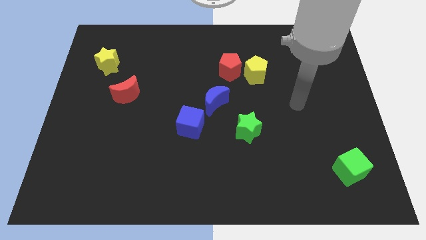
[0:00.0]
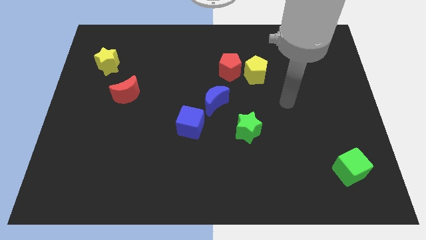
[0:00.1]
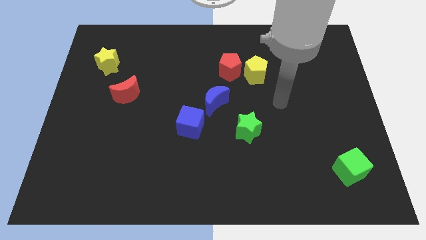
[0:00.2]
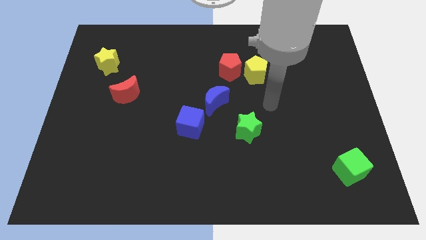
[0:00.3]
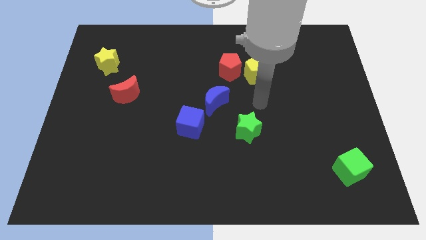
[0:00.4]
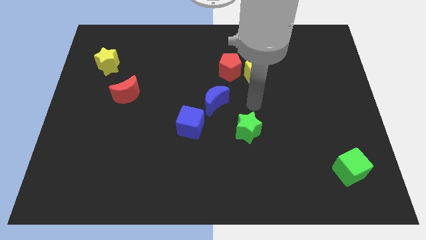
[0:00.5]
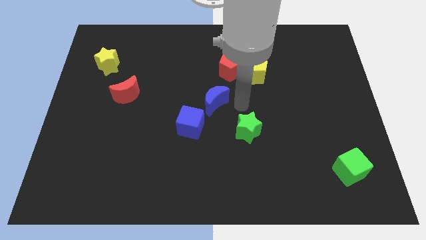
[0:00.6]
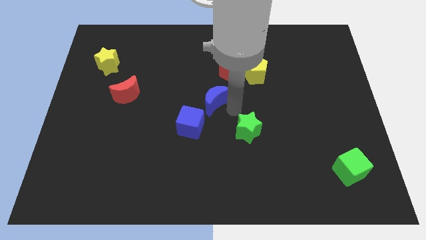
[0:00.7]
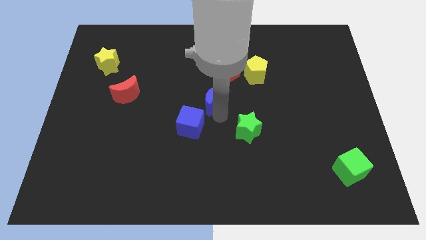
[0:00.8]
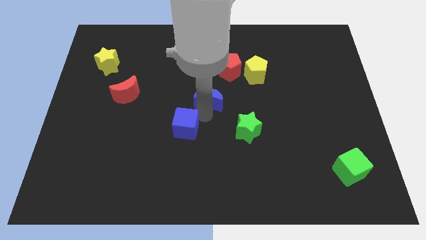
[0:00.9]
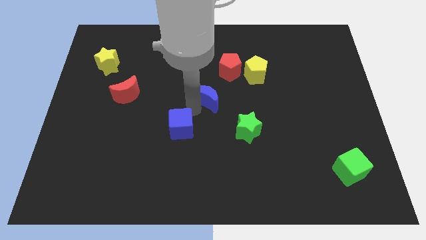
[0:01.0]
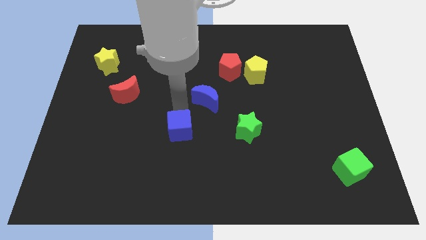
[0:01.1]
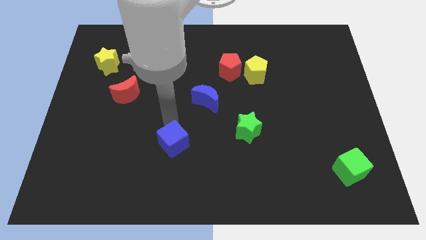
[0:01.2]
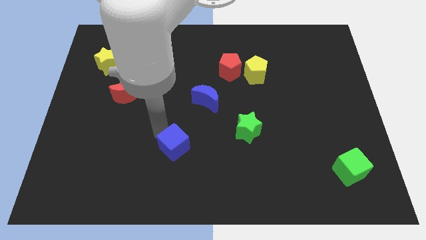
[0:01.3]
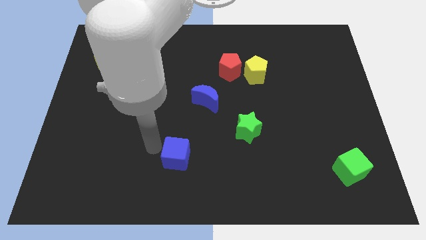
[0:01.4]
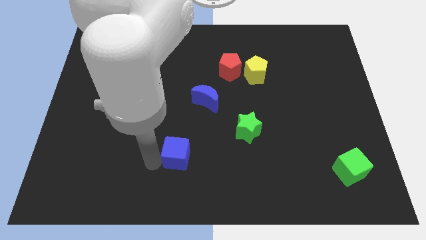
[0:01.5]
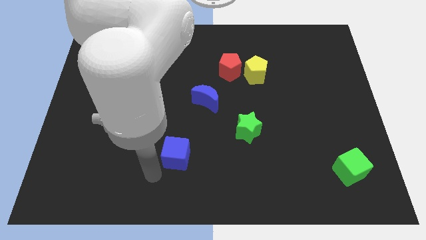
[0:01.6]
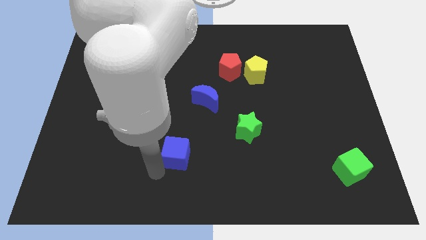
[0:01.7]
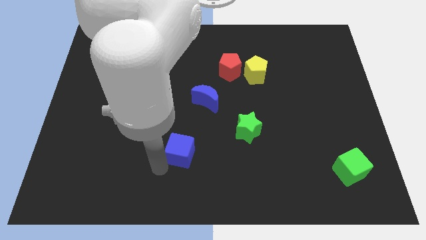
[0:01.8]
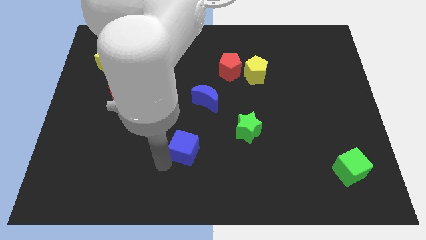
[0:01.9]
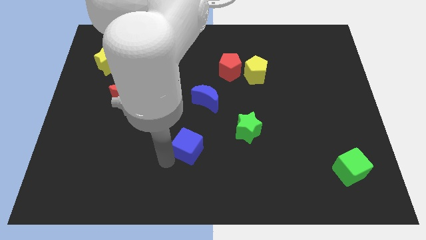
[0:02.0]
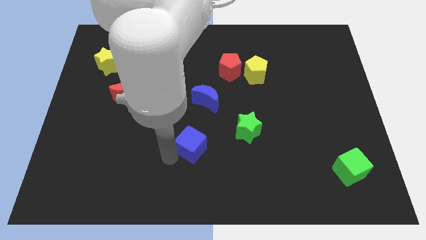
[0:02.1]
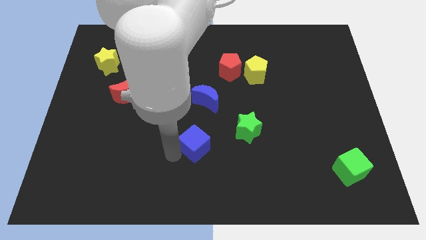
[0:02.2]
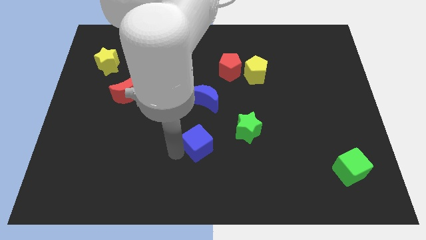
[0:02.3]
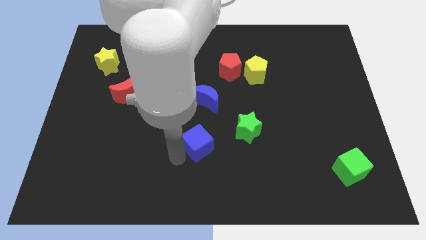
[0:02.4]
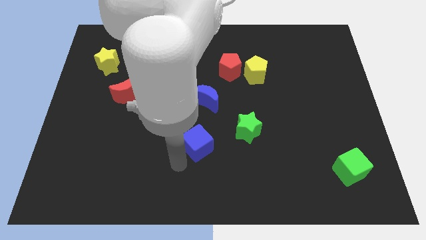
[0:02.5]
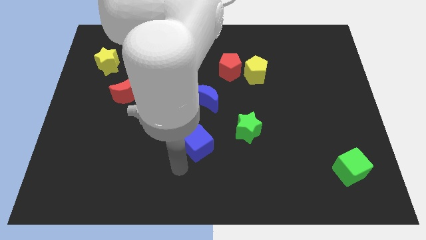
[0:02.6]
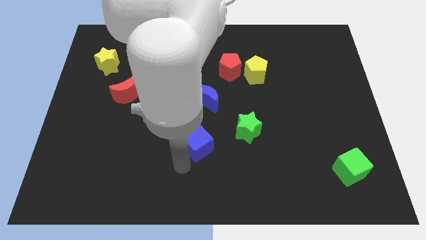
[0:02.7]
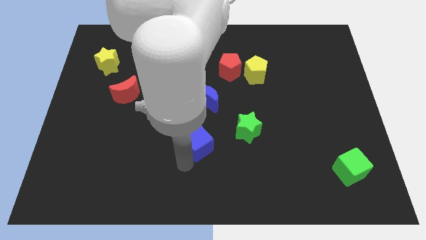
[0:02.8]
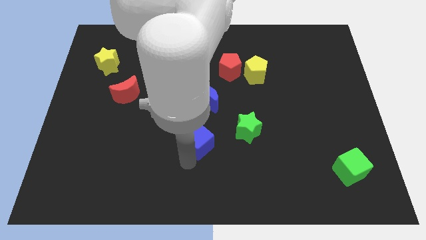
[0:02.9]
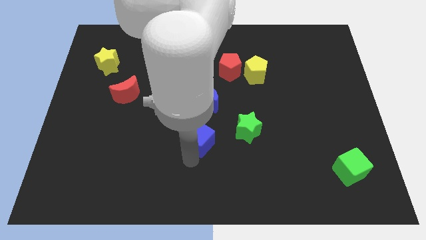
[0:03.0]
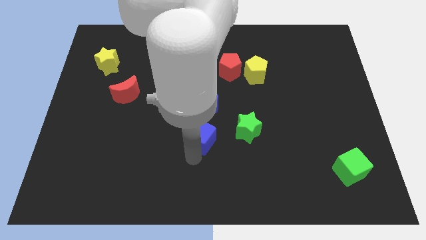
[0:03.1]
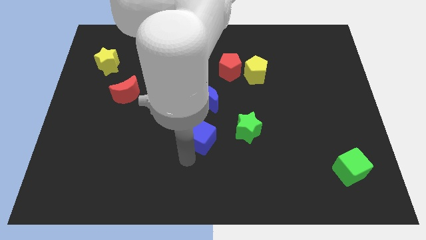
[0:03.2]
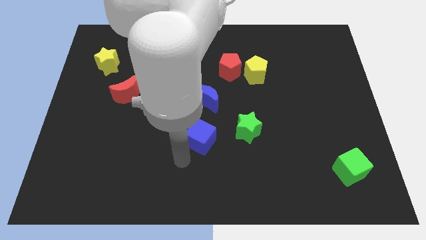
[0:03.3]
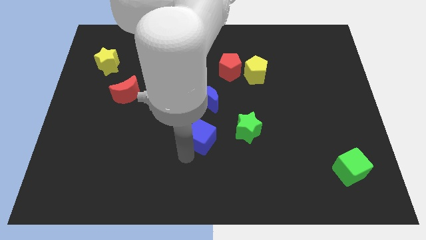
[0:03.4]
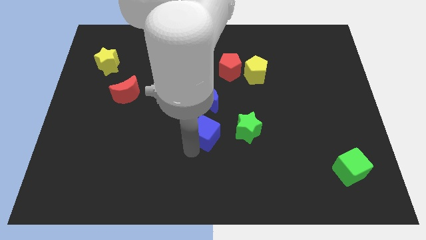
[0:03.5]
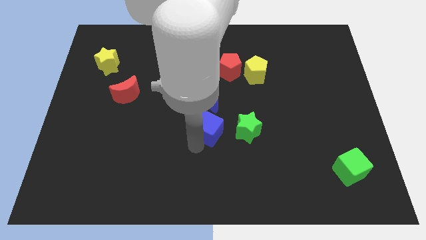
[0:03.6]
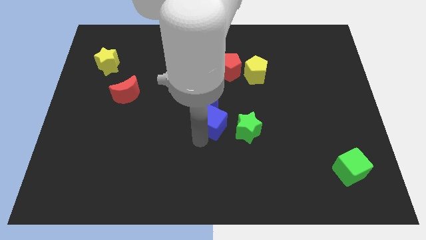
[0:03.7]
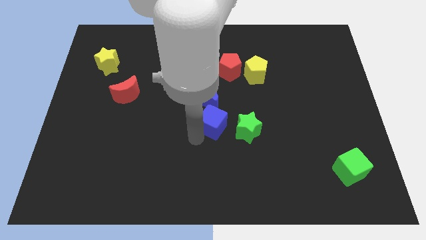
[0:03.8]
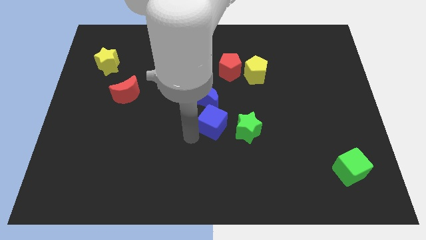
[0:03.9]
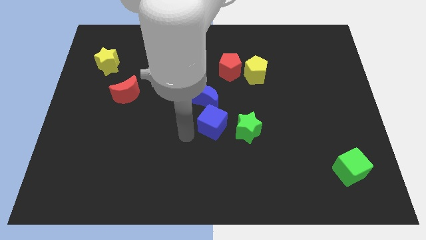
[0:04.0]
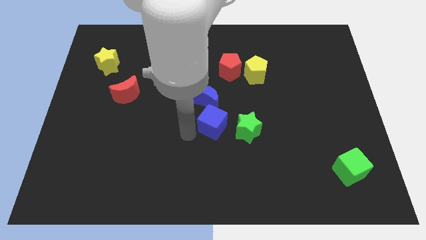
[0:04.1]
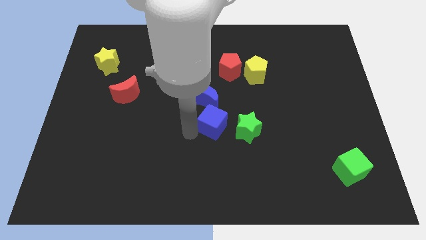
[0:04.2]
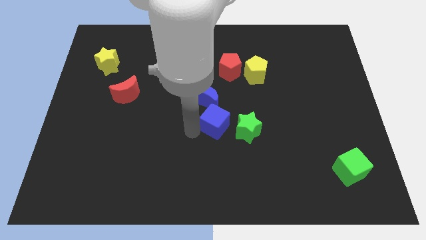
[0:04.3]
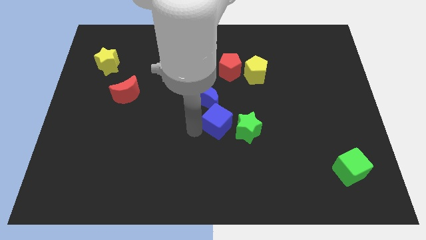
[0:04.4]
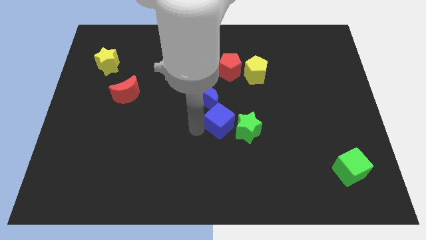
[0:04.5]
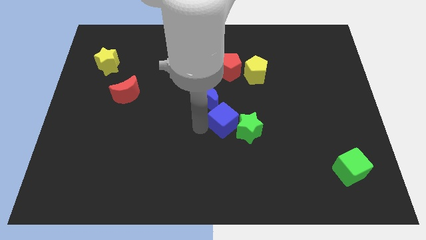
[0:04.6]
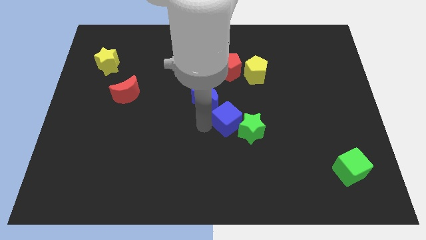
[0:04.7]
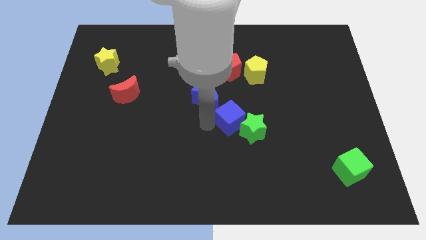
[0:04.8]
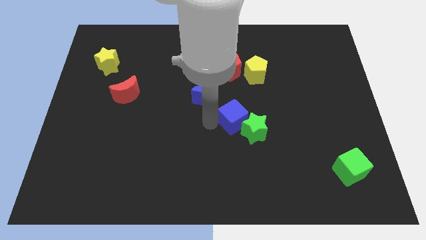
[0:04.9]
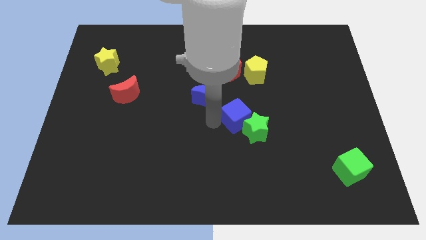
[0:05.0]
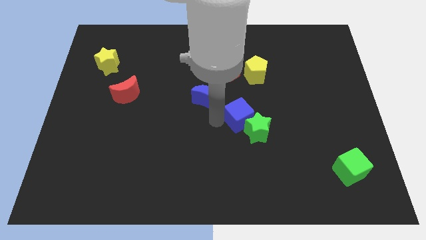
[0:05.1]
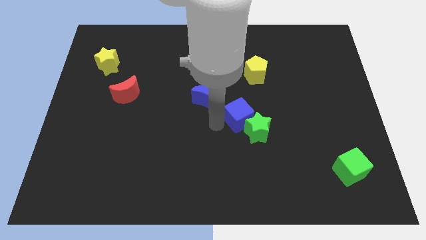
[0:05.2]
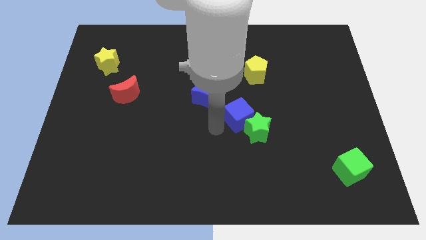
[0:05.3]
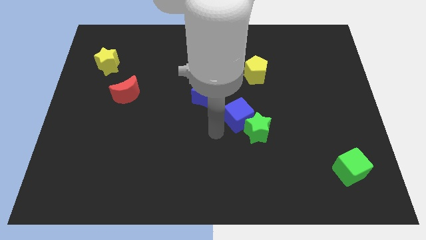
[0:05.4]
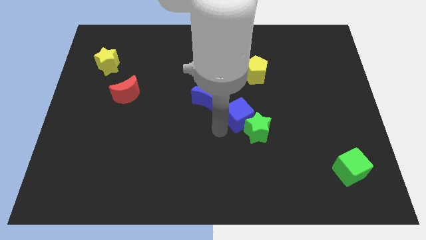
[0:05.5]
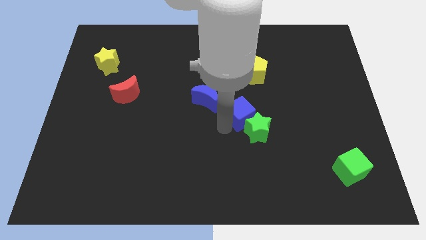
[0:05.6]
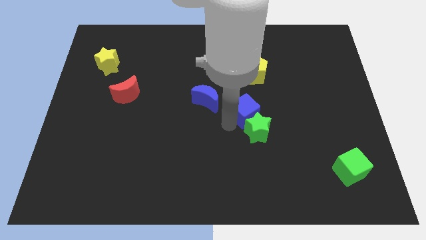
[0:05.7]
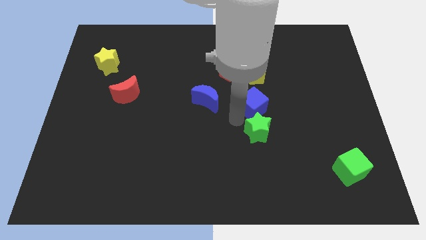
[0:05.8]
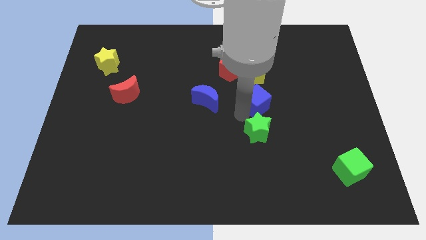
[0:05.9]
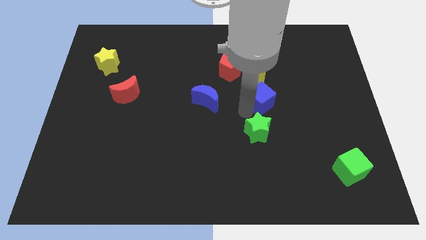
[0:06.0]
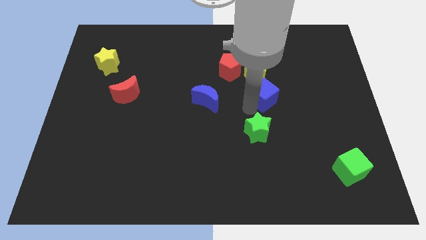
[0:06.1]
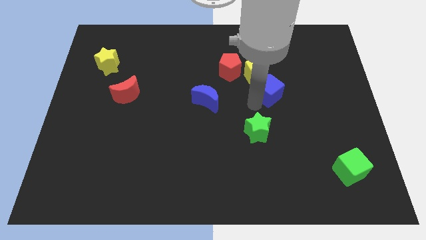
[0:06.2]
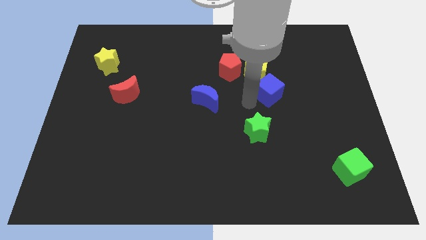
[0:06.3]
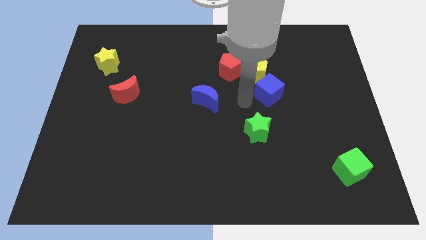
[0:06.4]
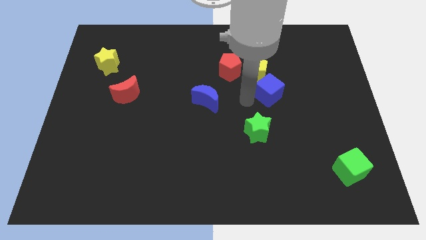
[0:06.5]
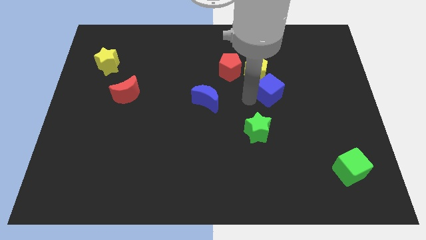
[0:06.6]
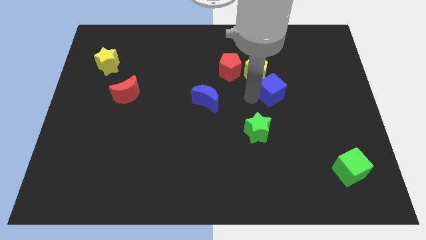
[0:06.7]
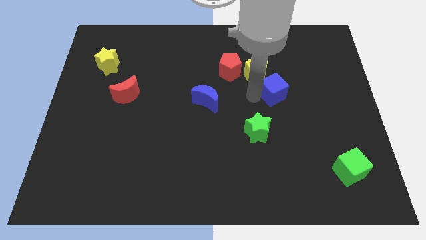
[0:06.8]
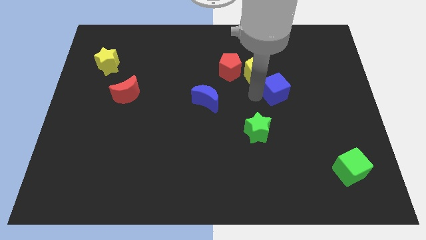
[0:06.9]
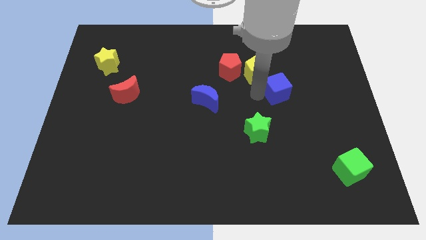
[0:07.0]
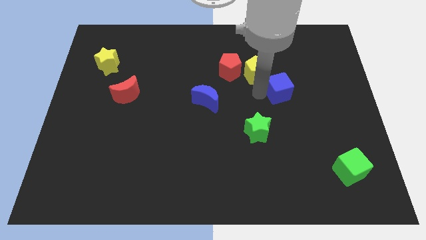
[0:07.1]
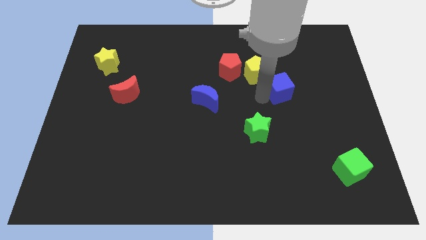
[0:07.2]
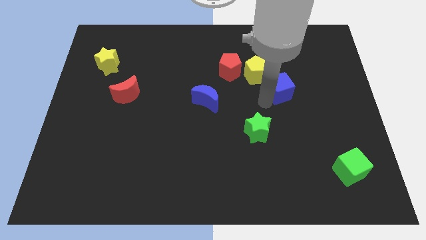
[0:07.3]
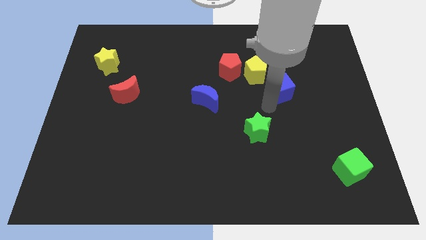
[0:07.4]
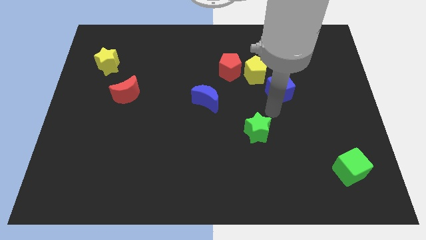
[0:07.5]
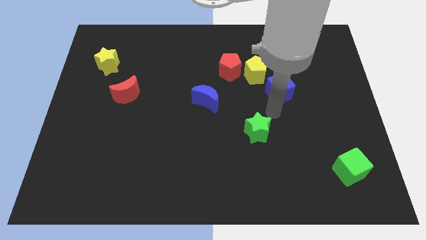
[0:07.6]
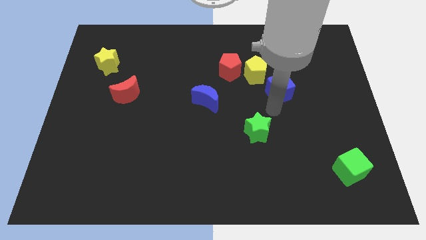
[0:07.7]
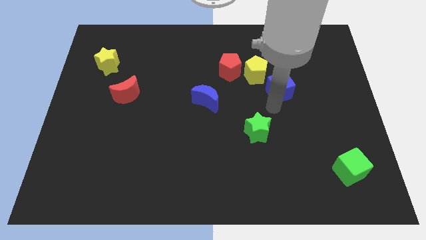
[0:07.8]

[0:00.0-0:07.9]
push the blue cube diagonally upwards and to the right

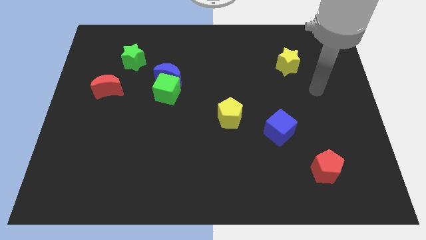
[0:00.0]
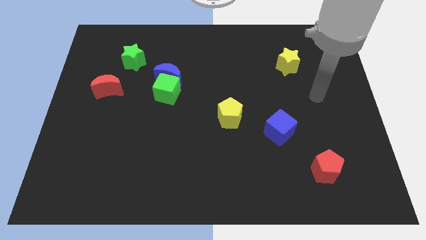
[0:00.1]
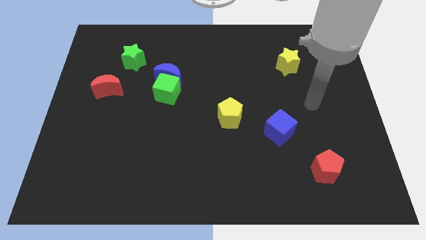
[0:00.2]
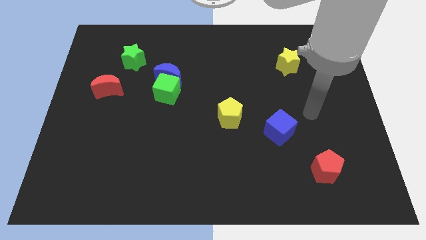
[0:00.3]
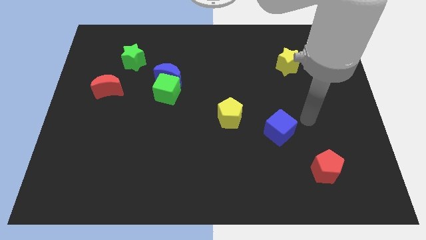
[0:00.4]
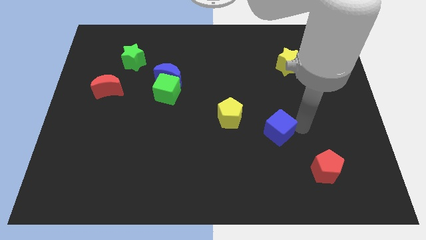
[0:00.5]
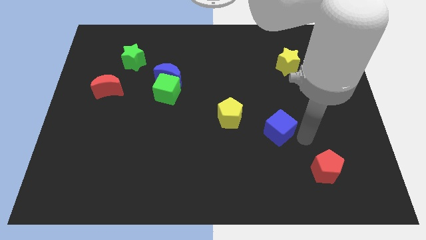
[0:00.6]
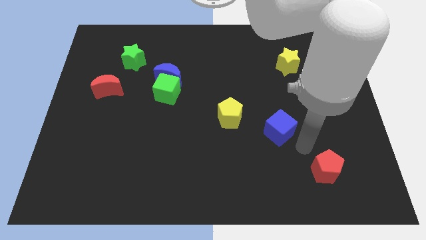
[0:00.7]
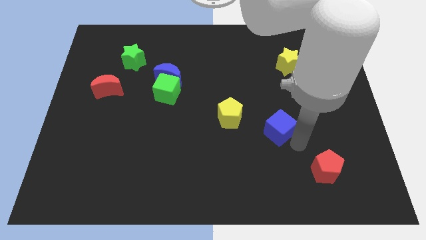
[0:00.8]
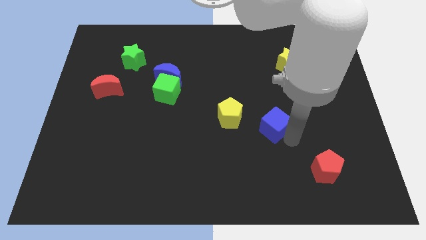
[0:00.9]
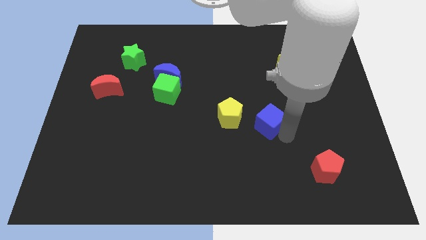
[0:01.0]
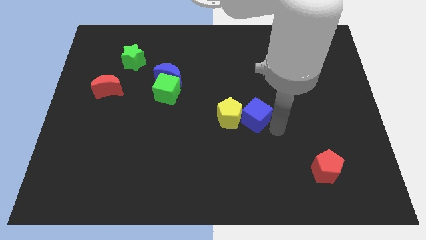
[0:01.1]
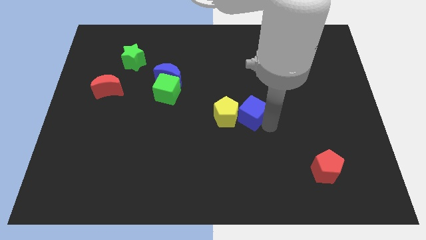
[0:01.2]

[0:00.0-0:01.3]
move the blue cube upwards and left somewhat
